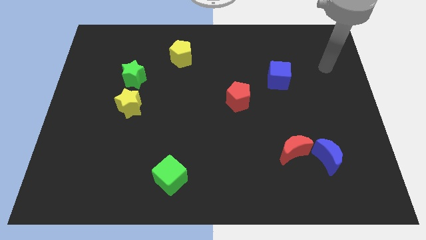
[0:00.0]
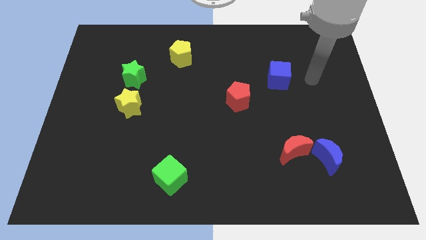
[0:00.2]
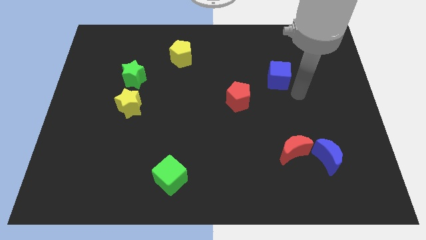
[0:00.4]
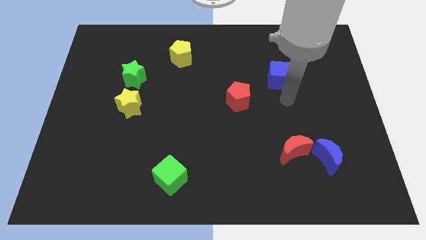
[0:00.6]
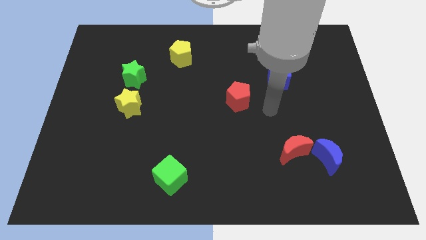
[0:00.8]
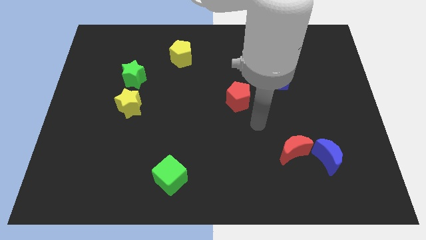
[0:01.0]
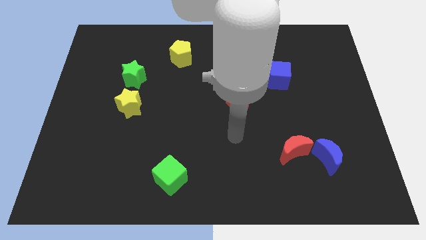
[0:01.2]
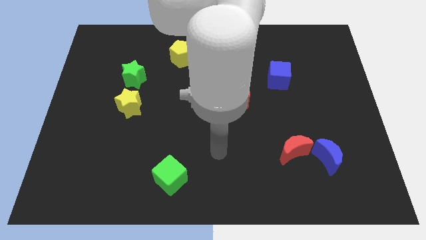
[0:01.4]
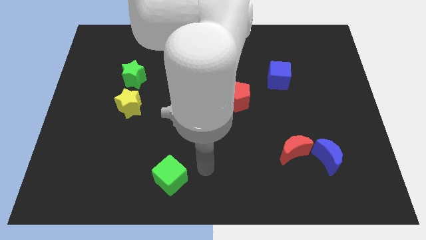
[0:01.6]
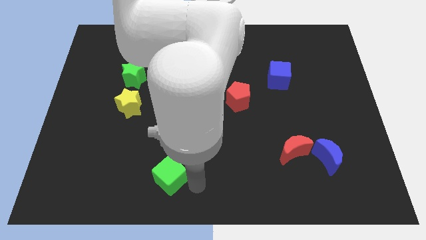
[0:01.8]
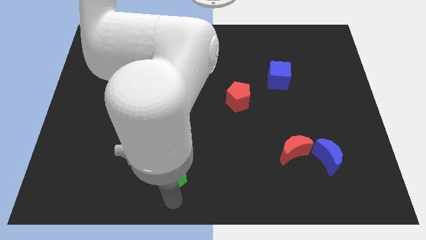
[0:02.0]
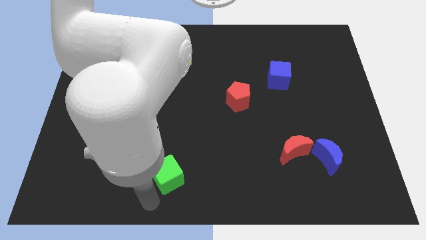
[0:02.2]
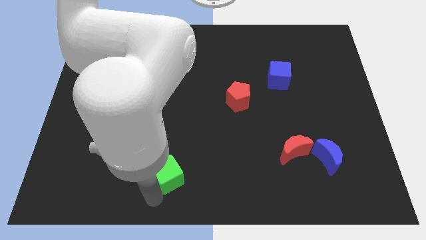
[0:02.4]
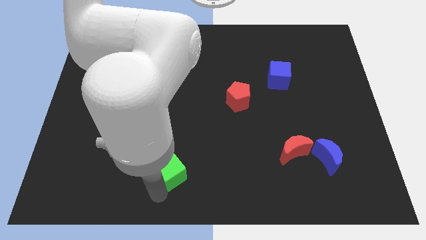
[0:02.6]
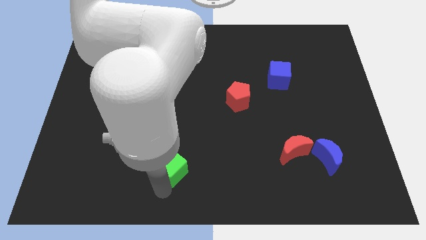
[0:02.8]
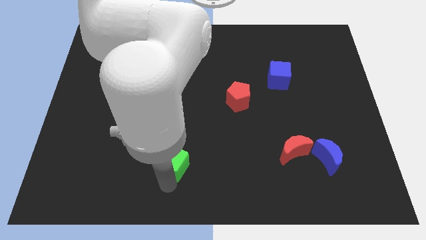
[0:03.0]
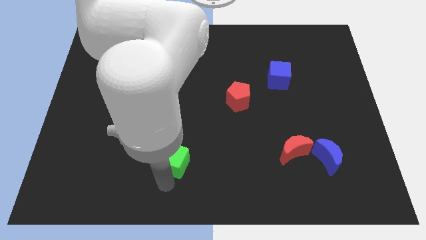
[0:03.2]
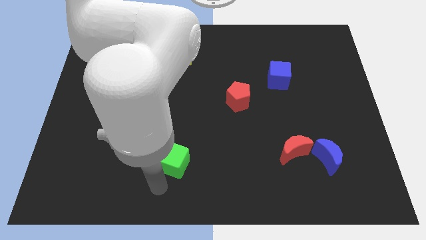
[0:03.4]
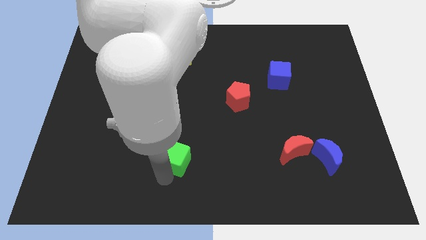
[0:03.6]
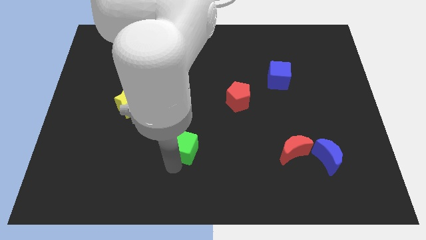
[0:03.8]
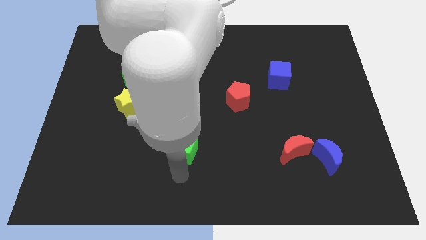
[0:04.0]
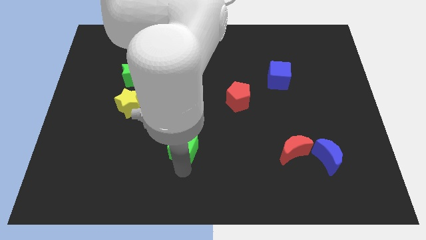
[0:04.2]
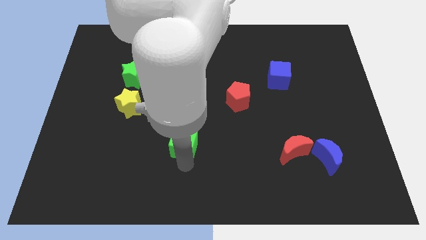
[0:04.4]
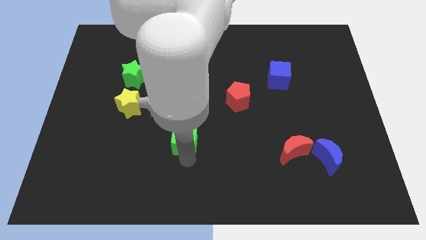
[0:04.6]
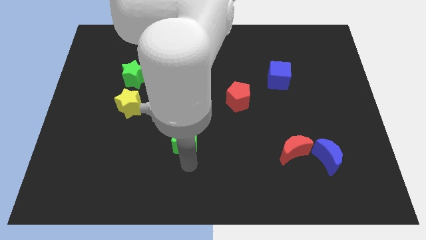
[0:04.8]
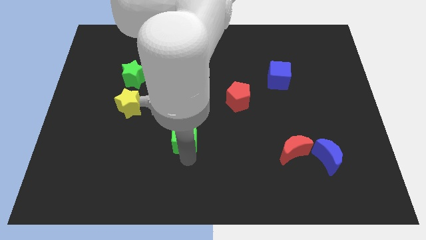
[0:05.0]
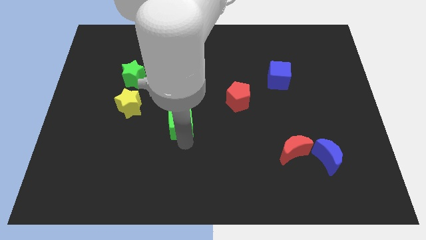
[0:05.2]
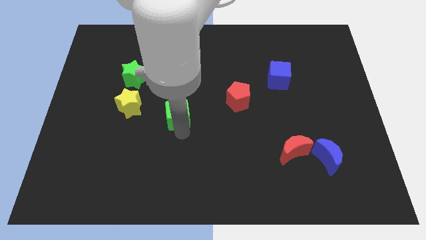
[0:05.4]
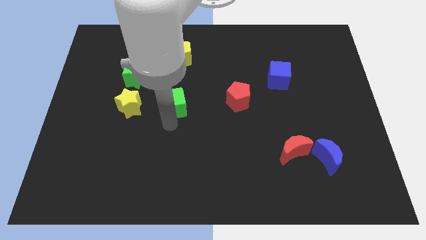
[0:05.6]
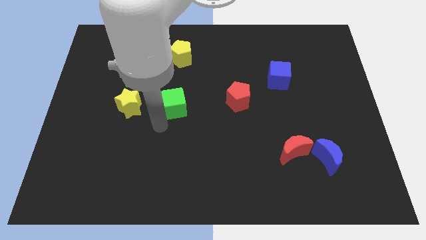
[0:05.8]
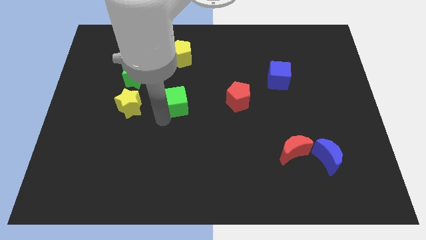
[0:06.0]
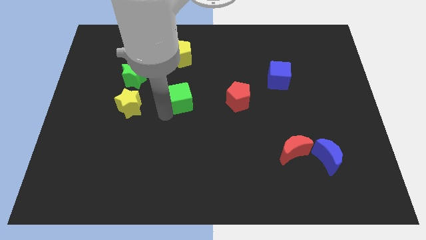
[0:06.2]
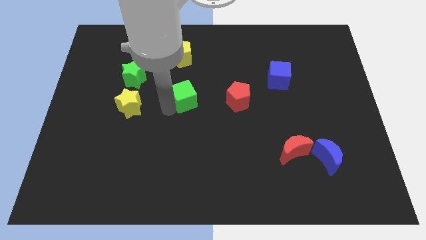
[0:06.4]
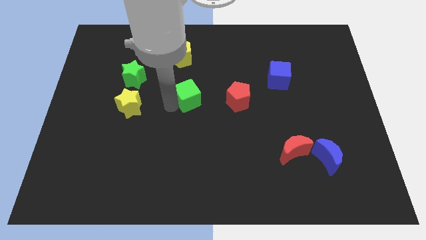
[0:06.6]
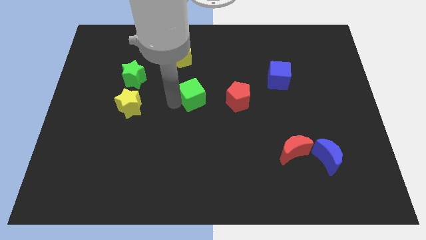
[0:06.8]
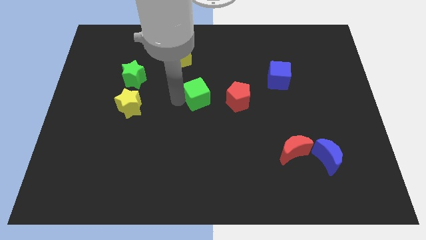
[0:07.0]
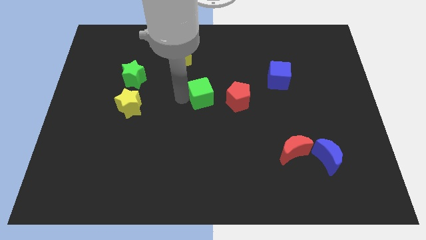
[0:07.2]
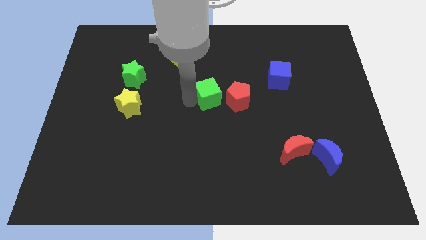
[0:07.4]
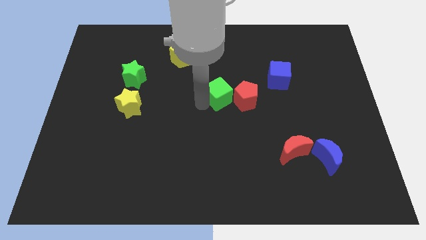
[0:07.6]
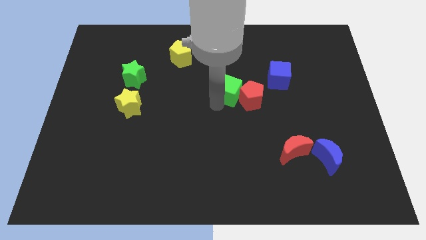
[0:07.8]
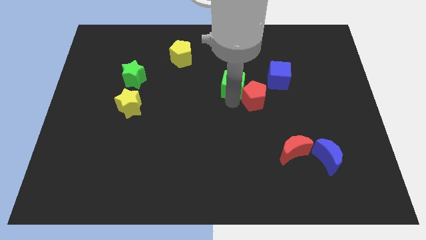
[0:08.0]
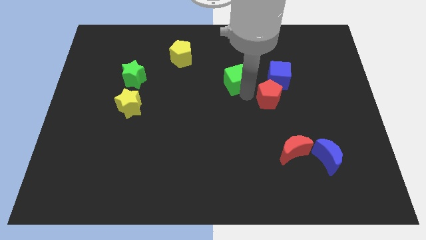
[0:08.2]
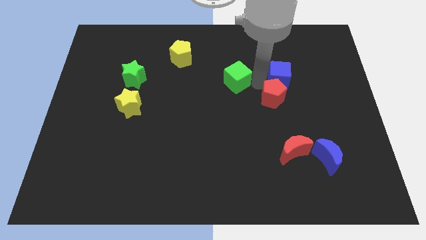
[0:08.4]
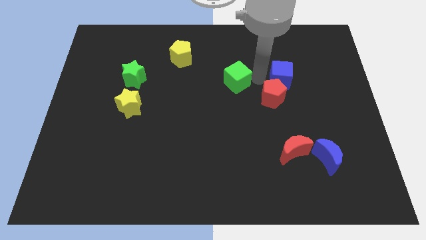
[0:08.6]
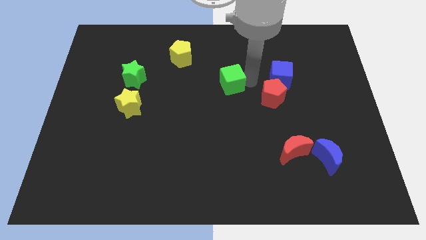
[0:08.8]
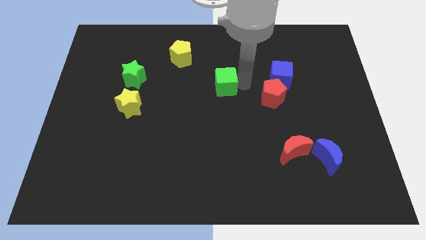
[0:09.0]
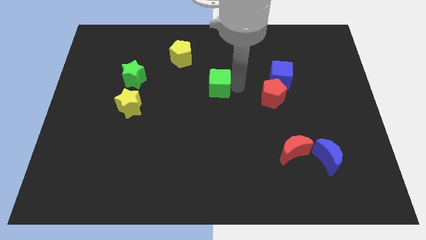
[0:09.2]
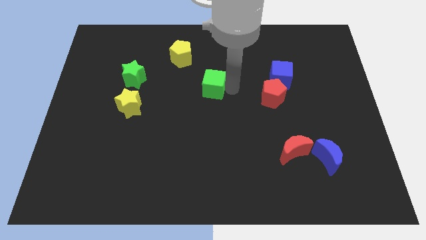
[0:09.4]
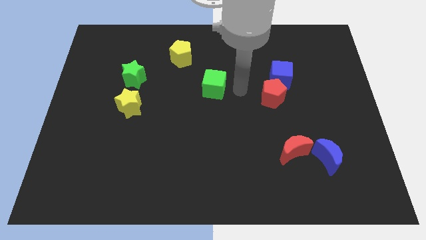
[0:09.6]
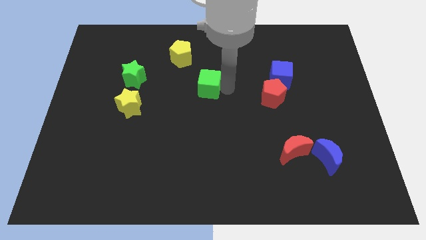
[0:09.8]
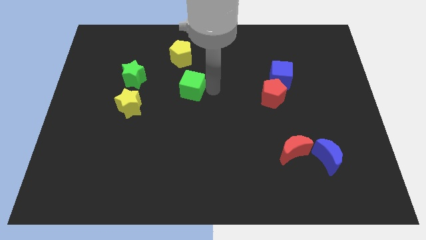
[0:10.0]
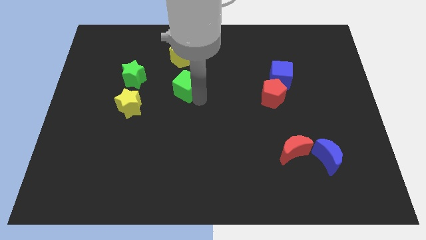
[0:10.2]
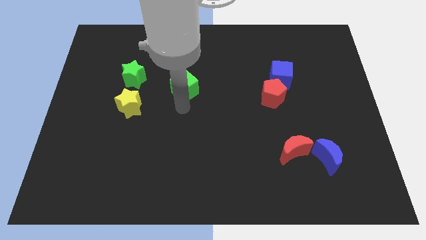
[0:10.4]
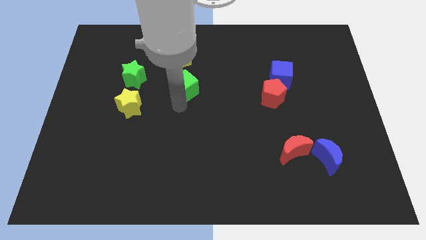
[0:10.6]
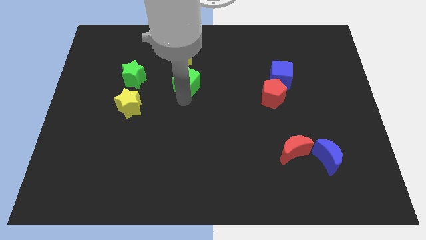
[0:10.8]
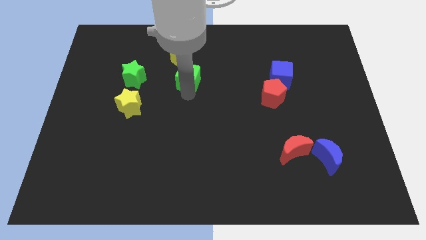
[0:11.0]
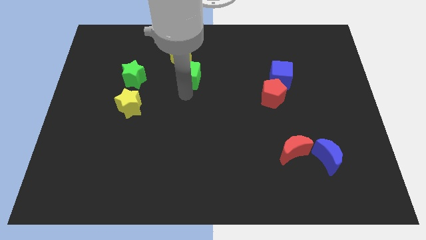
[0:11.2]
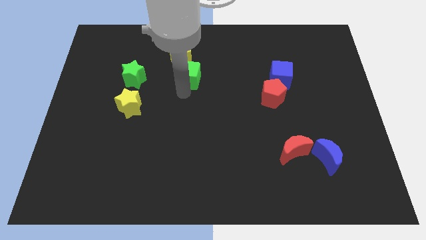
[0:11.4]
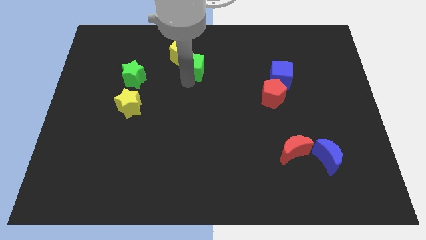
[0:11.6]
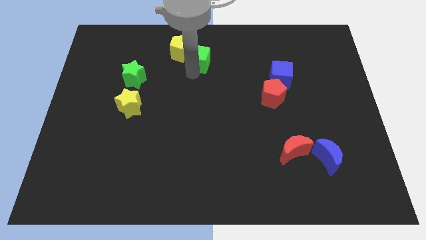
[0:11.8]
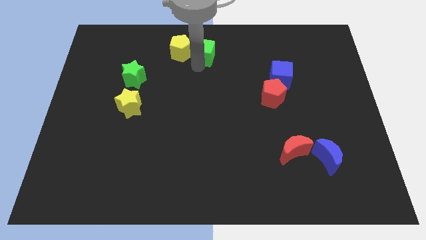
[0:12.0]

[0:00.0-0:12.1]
move the green cube to the top side
